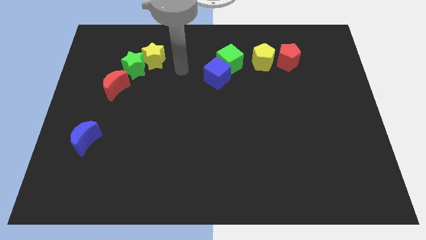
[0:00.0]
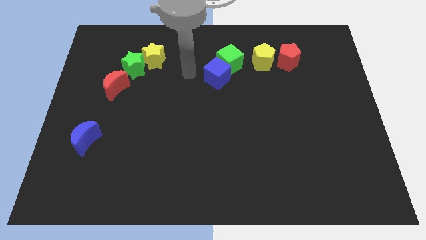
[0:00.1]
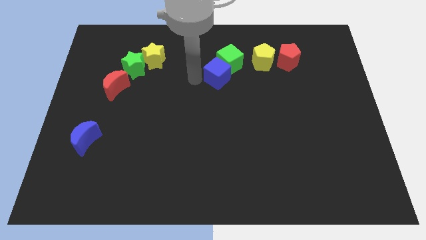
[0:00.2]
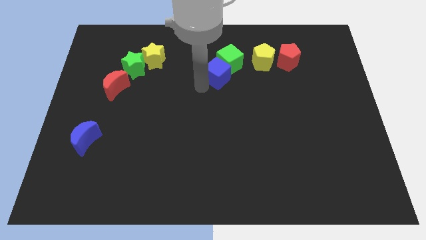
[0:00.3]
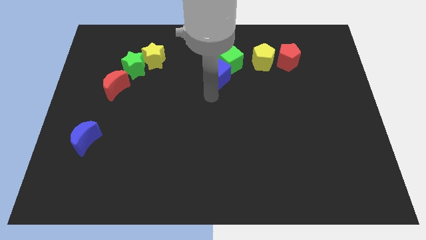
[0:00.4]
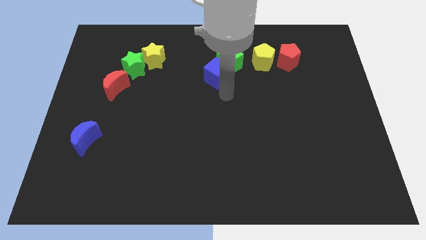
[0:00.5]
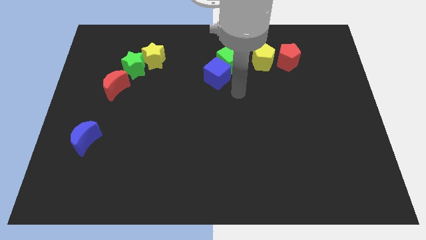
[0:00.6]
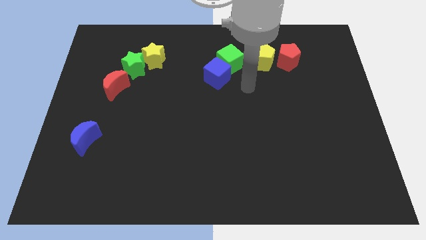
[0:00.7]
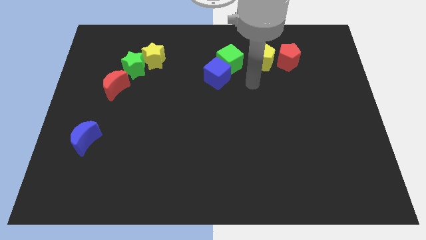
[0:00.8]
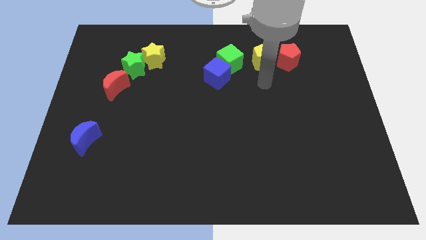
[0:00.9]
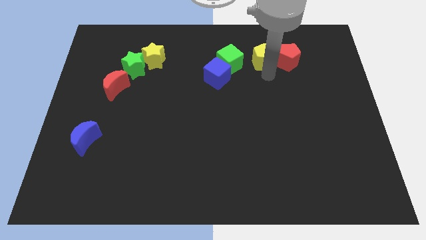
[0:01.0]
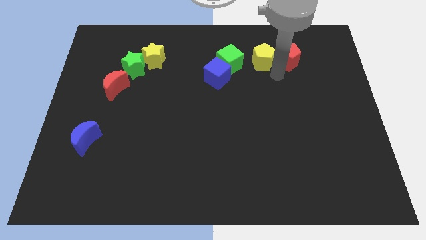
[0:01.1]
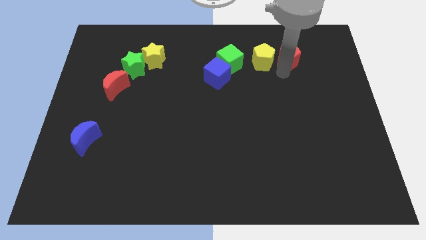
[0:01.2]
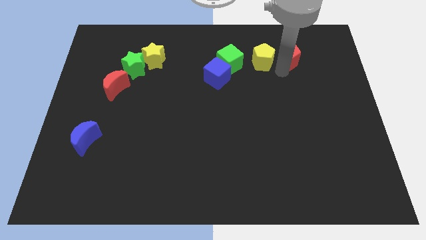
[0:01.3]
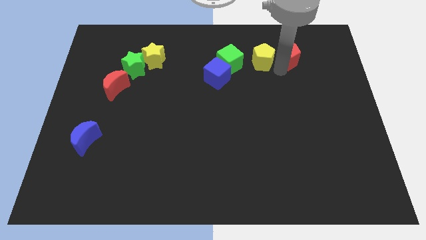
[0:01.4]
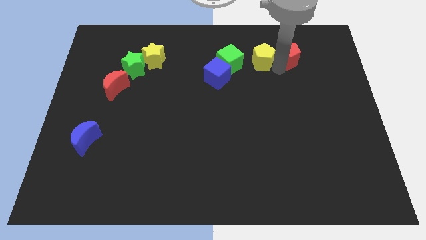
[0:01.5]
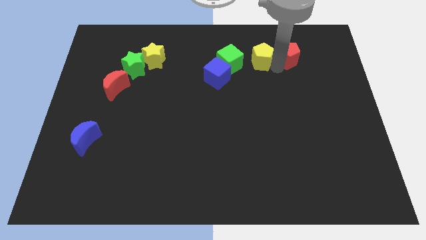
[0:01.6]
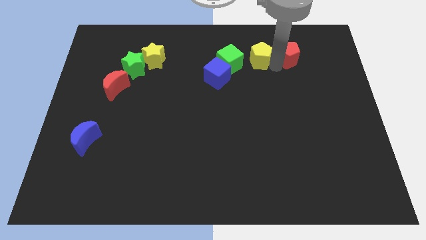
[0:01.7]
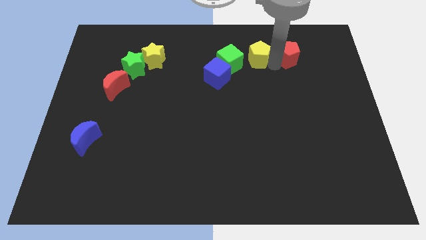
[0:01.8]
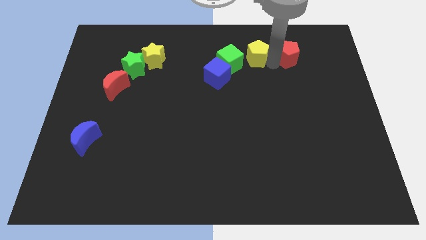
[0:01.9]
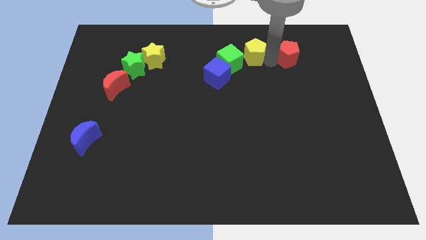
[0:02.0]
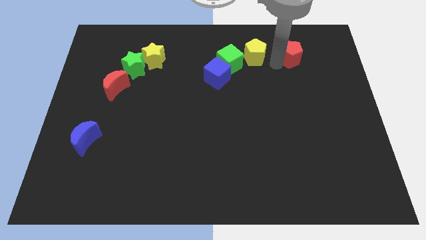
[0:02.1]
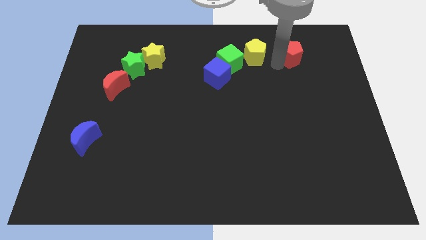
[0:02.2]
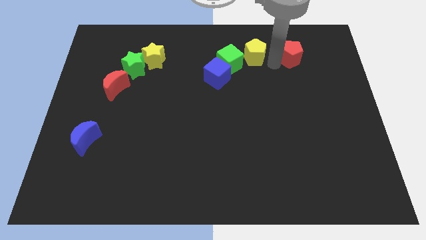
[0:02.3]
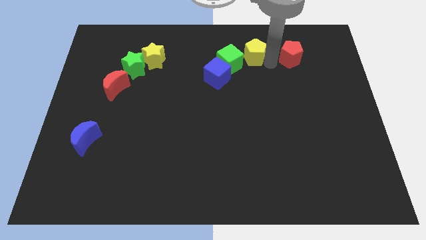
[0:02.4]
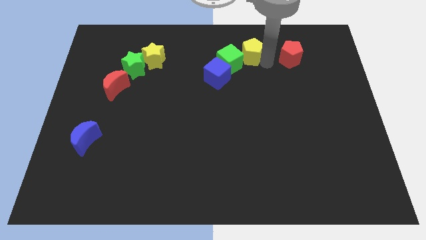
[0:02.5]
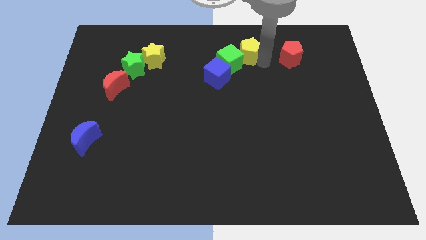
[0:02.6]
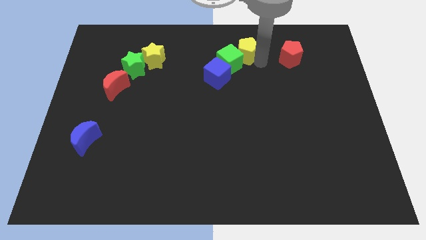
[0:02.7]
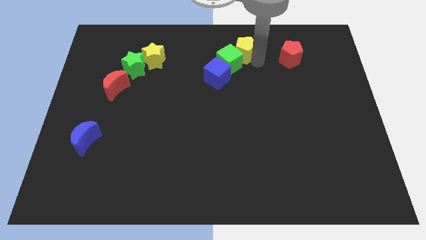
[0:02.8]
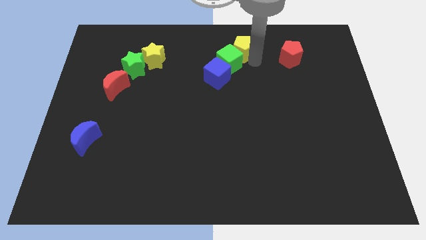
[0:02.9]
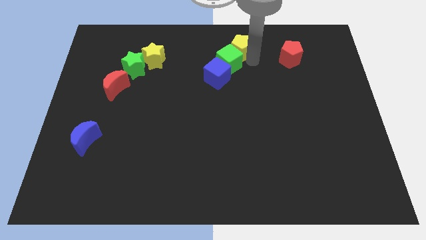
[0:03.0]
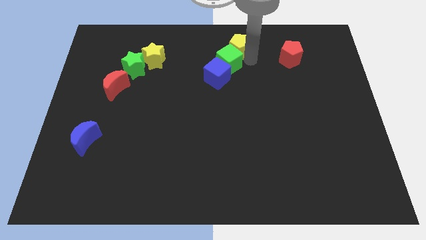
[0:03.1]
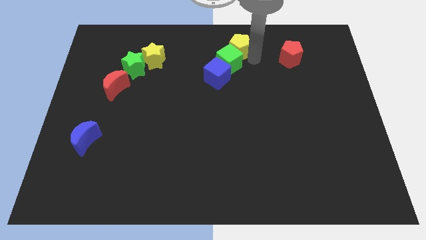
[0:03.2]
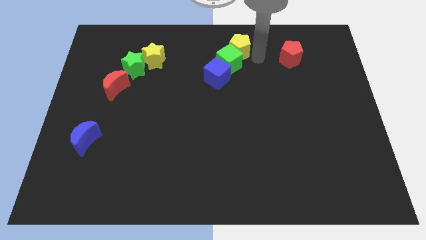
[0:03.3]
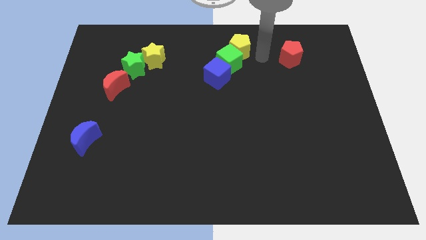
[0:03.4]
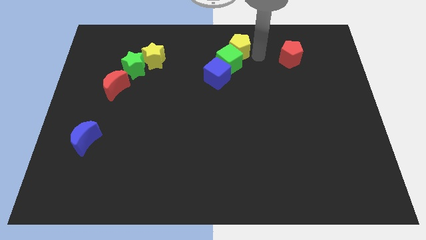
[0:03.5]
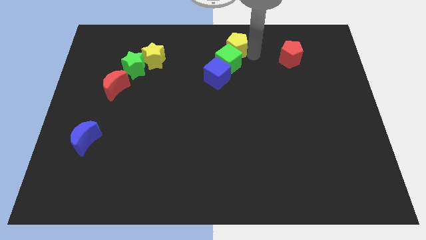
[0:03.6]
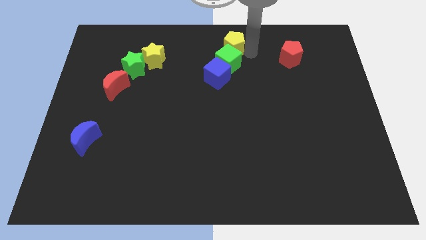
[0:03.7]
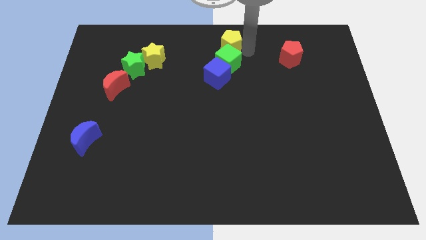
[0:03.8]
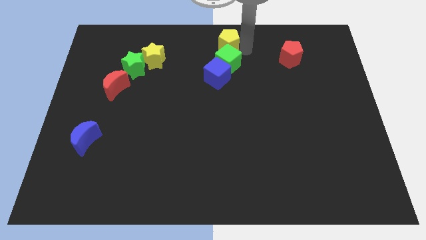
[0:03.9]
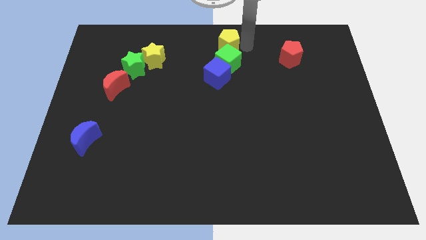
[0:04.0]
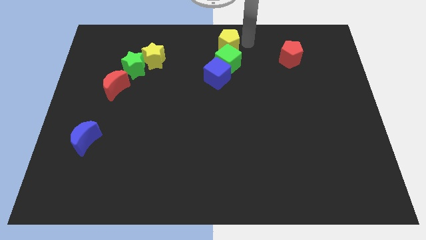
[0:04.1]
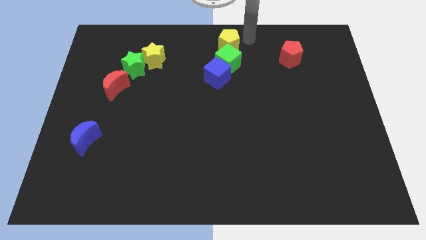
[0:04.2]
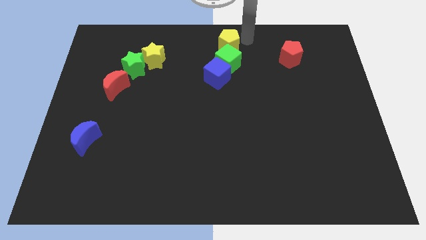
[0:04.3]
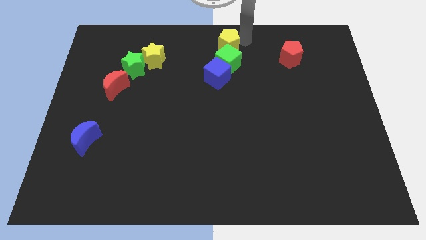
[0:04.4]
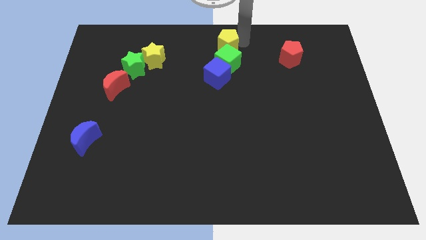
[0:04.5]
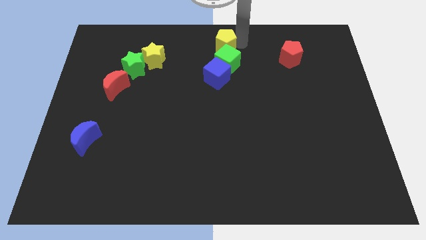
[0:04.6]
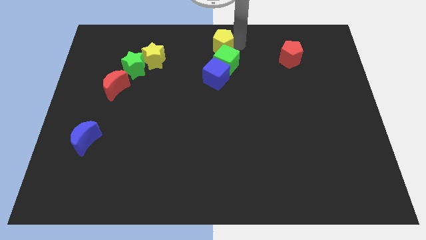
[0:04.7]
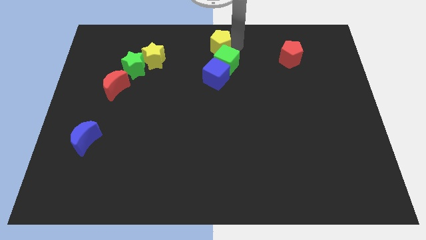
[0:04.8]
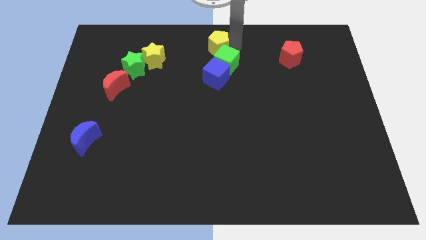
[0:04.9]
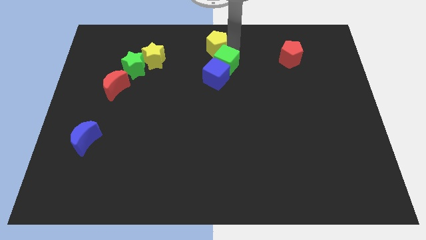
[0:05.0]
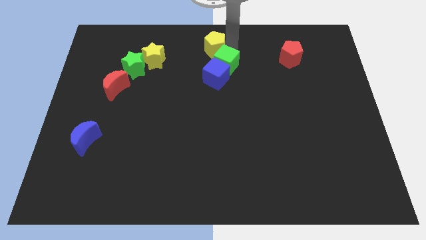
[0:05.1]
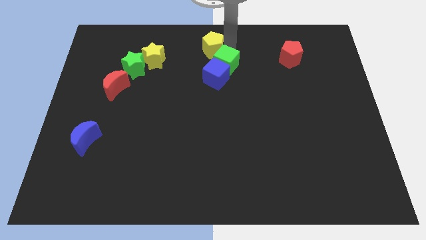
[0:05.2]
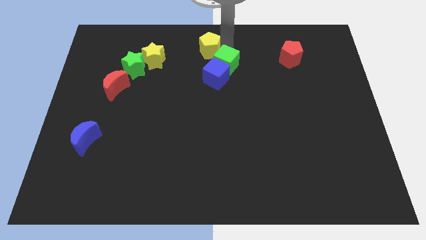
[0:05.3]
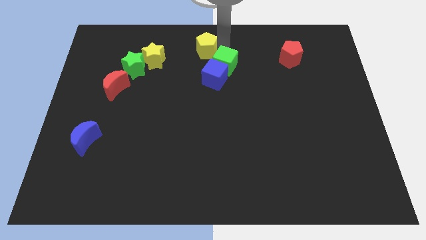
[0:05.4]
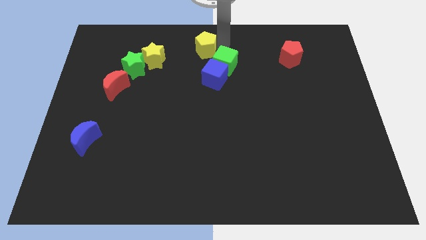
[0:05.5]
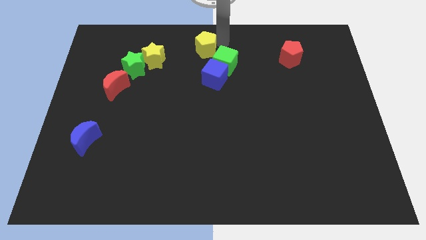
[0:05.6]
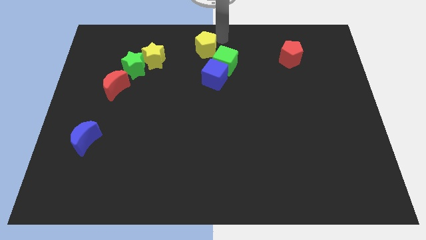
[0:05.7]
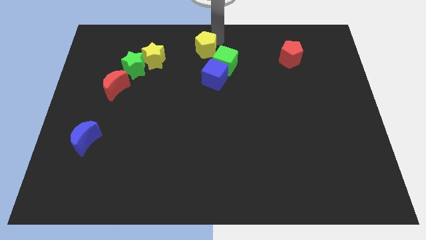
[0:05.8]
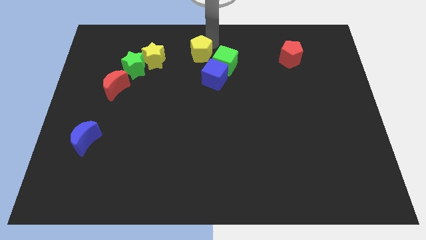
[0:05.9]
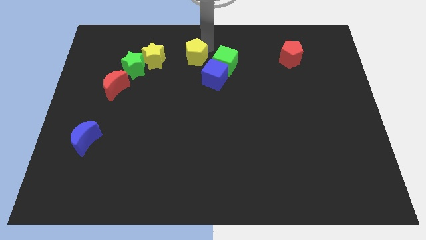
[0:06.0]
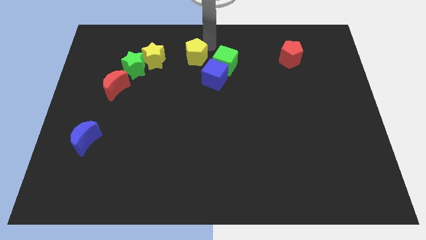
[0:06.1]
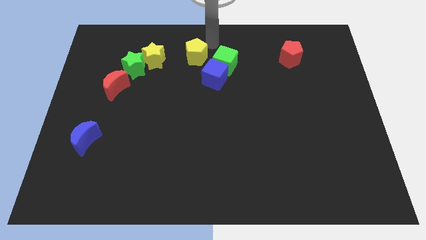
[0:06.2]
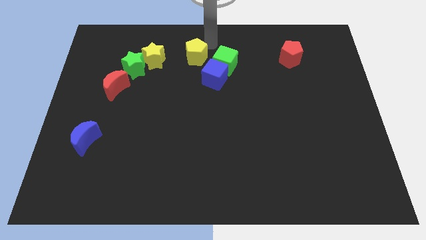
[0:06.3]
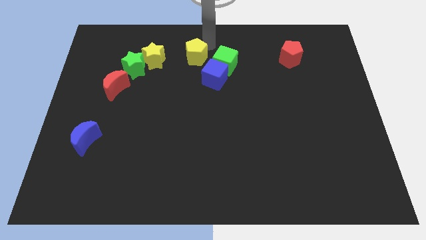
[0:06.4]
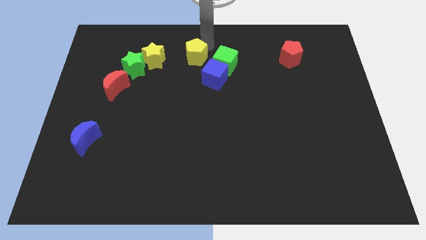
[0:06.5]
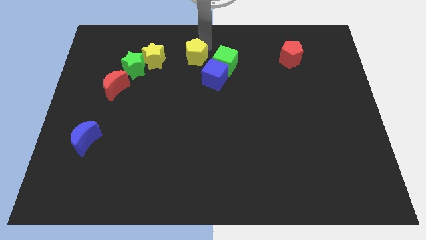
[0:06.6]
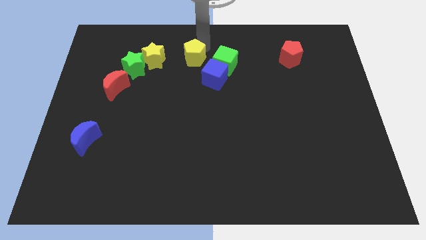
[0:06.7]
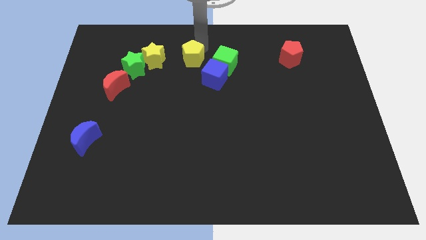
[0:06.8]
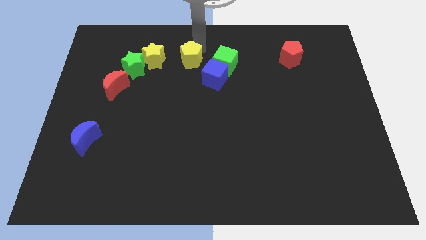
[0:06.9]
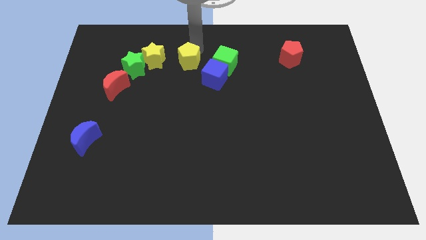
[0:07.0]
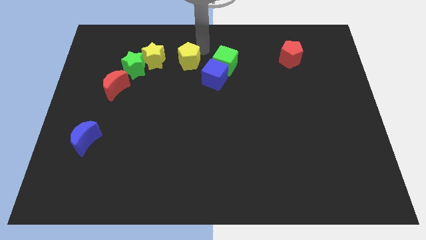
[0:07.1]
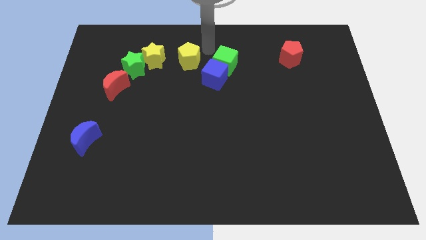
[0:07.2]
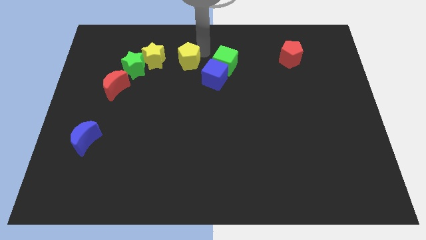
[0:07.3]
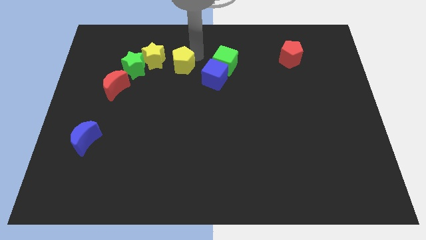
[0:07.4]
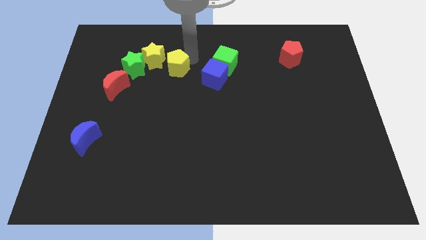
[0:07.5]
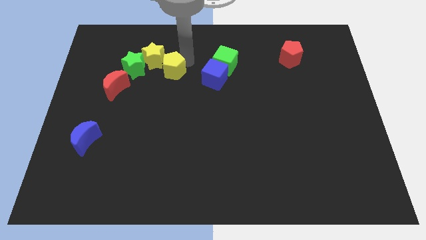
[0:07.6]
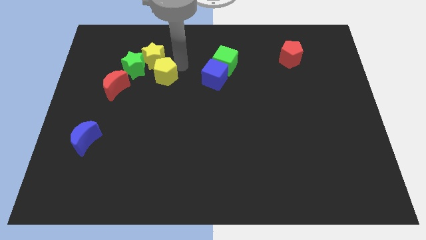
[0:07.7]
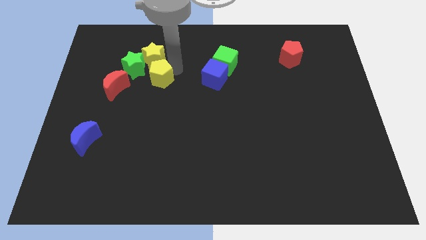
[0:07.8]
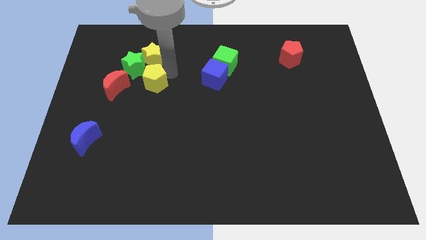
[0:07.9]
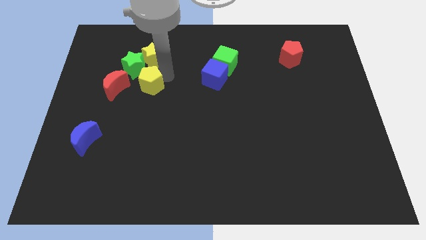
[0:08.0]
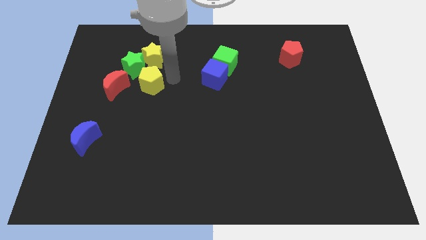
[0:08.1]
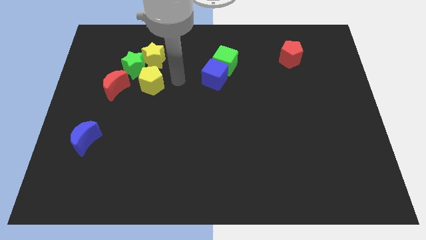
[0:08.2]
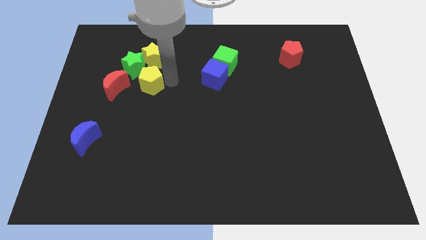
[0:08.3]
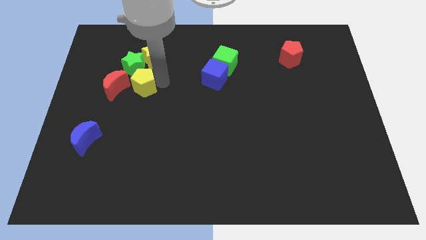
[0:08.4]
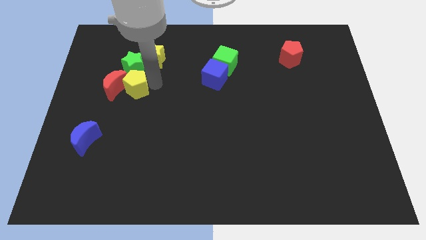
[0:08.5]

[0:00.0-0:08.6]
put the yellow pentagon next to the red moon
